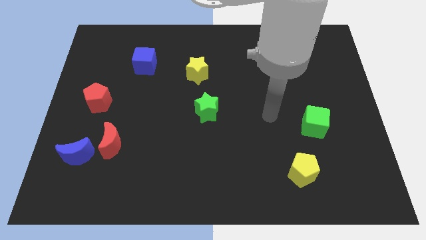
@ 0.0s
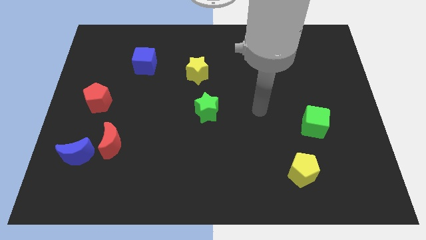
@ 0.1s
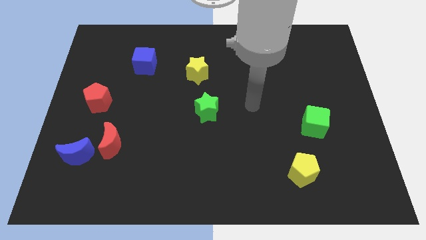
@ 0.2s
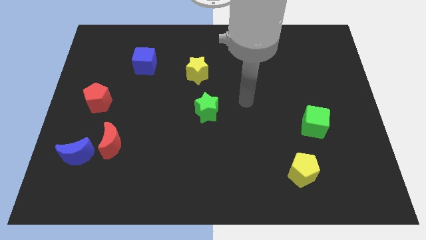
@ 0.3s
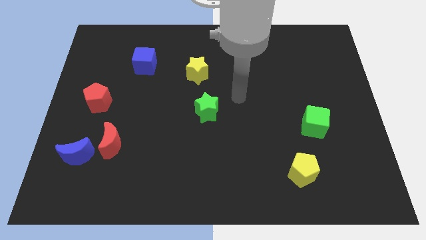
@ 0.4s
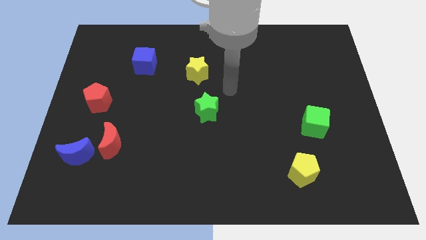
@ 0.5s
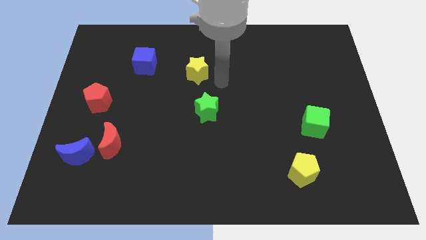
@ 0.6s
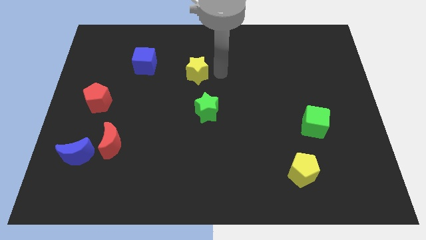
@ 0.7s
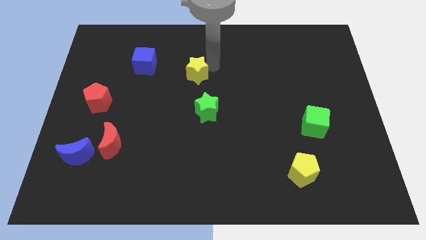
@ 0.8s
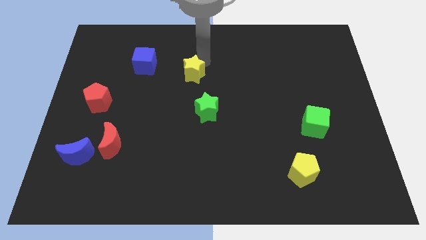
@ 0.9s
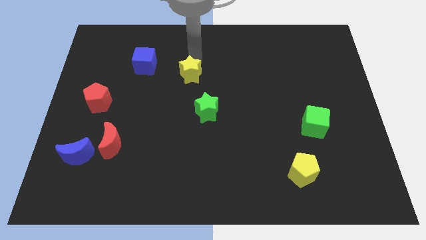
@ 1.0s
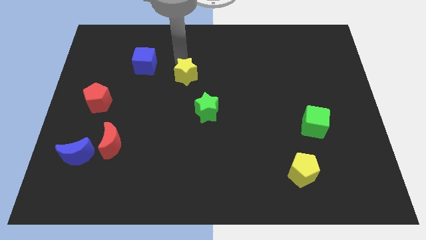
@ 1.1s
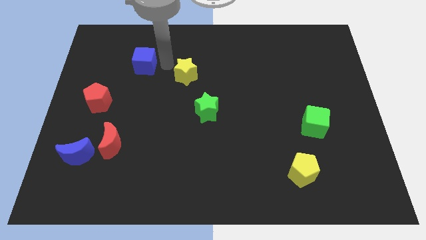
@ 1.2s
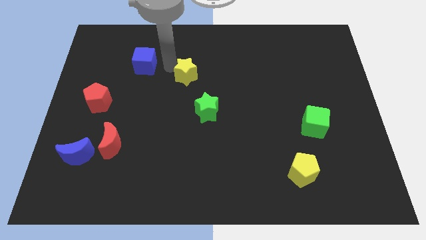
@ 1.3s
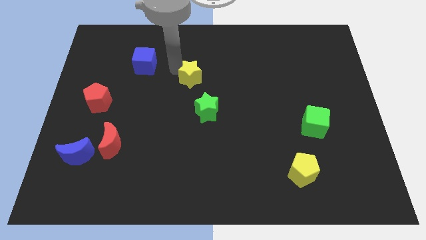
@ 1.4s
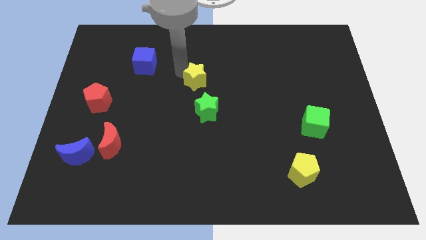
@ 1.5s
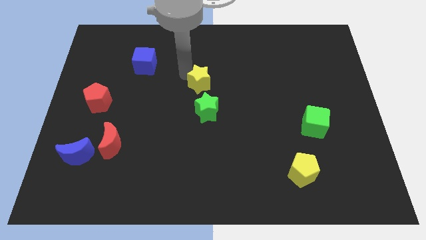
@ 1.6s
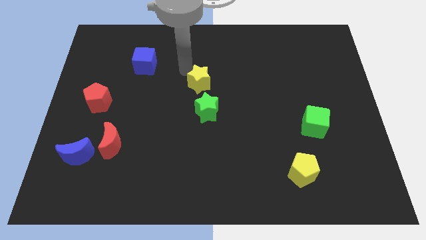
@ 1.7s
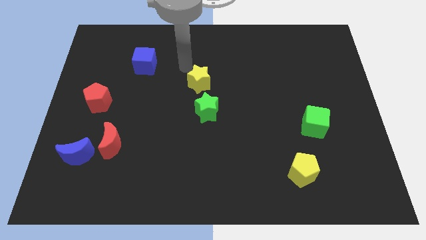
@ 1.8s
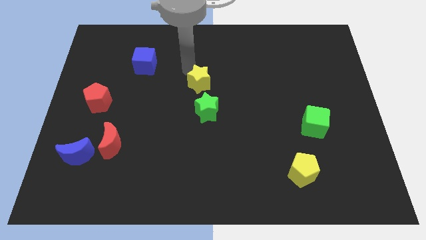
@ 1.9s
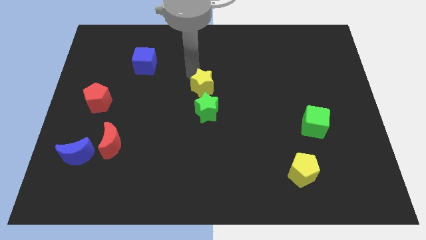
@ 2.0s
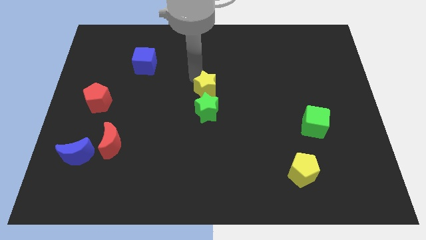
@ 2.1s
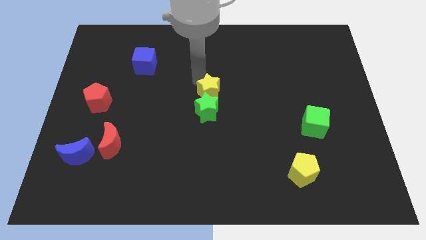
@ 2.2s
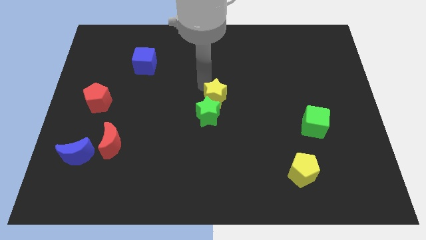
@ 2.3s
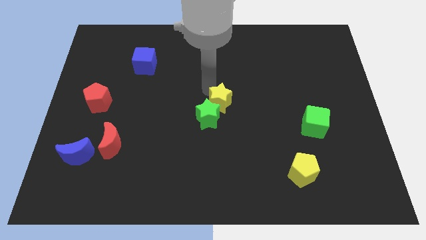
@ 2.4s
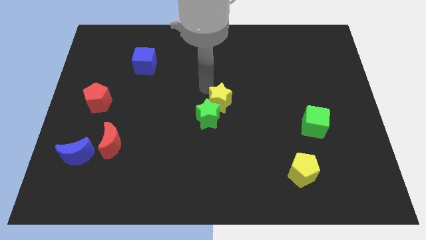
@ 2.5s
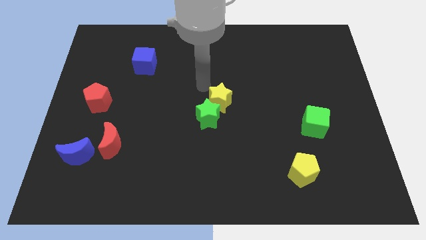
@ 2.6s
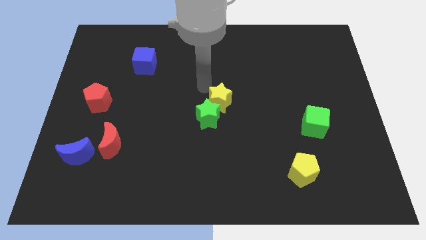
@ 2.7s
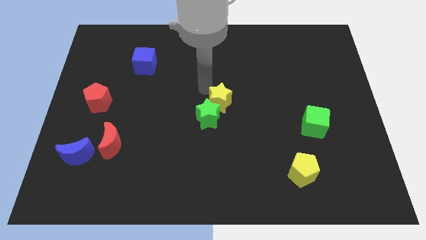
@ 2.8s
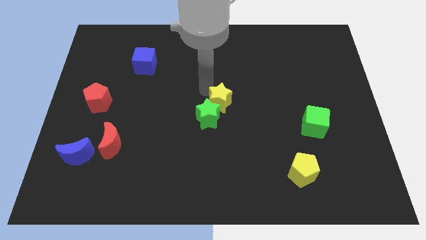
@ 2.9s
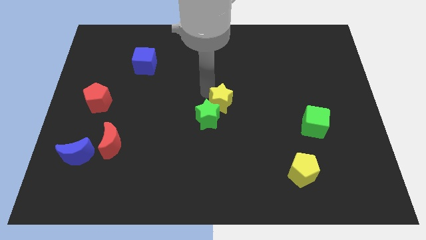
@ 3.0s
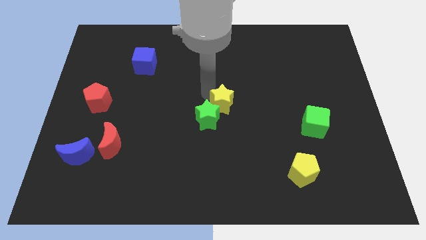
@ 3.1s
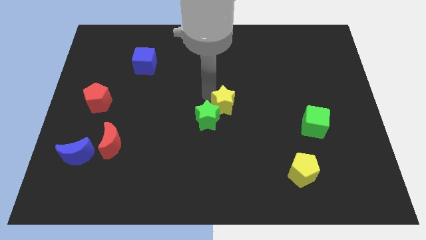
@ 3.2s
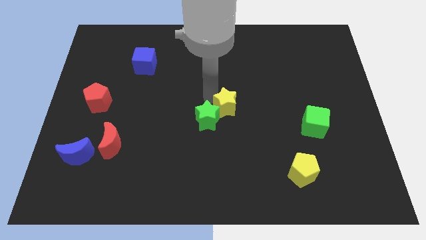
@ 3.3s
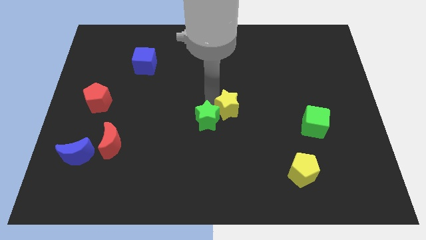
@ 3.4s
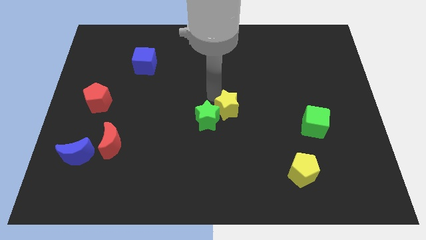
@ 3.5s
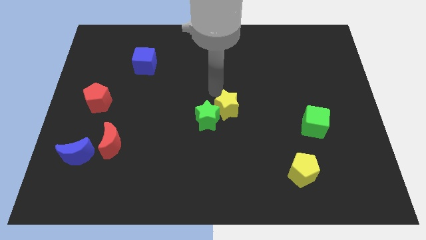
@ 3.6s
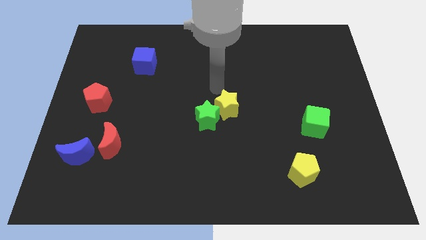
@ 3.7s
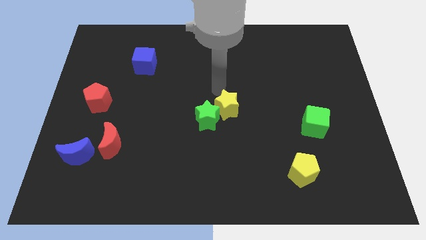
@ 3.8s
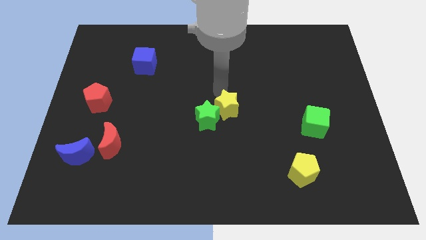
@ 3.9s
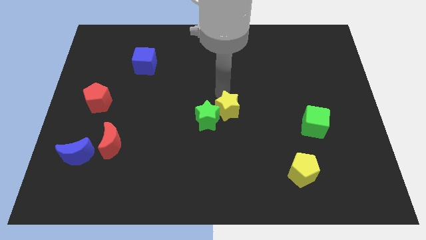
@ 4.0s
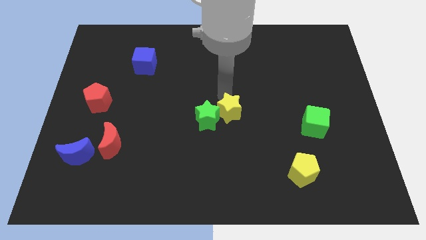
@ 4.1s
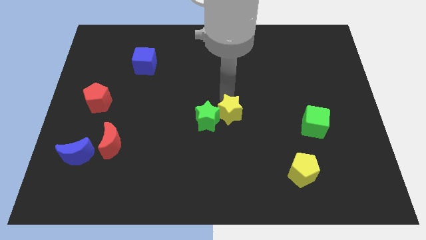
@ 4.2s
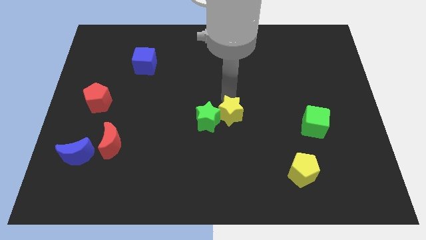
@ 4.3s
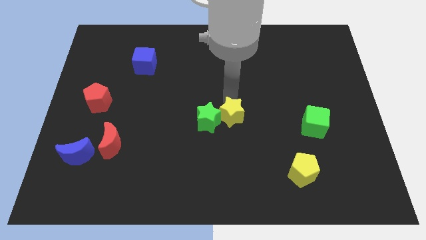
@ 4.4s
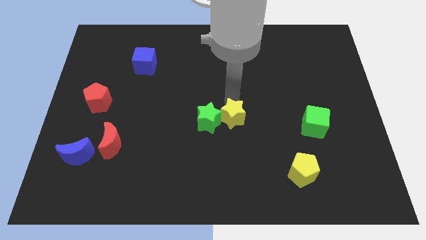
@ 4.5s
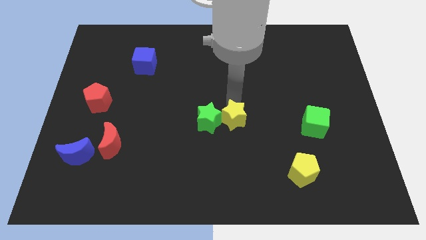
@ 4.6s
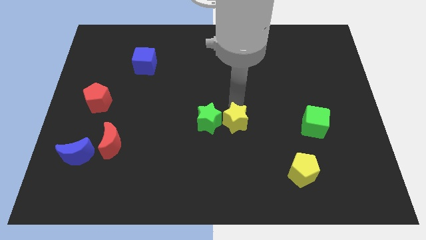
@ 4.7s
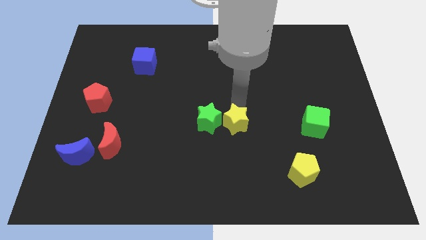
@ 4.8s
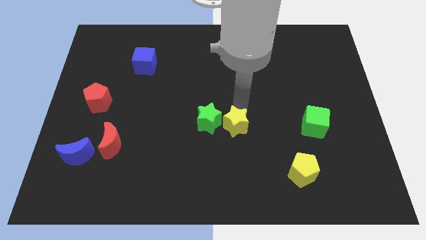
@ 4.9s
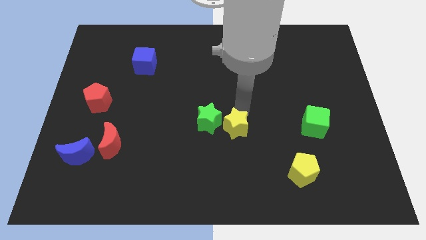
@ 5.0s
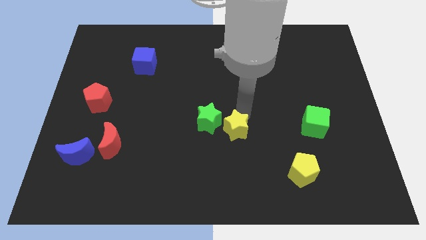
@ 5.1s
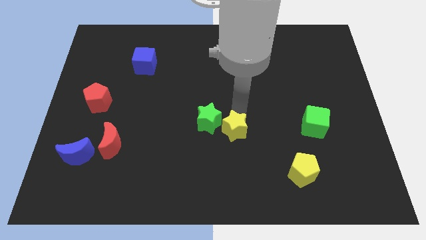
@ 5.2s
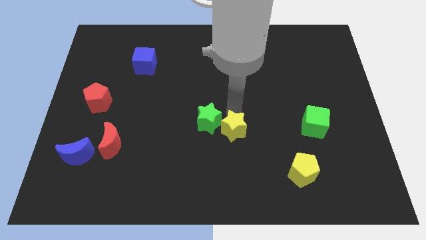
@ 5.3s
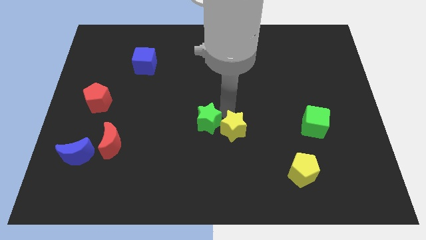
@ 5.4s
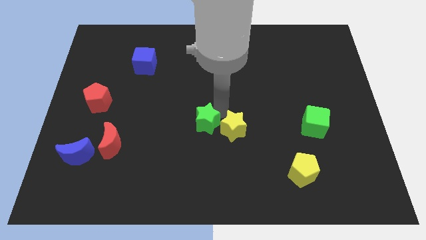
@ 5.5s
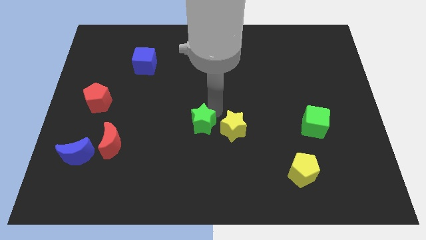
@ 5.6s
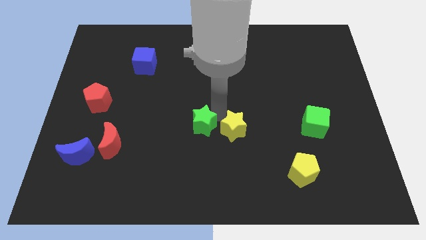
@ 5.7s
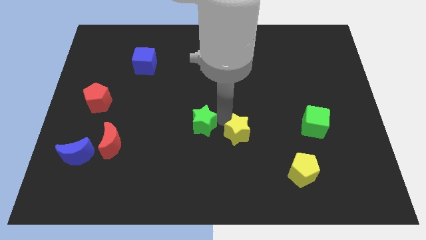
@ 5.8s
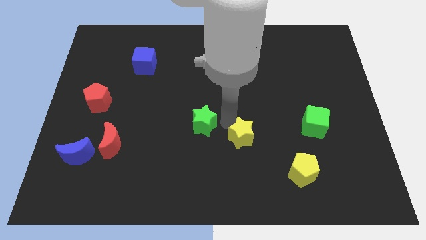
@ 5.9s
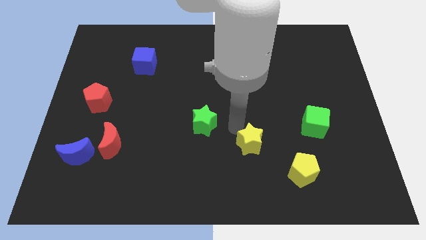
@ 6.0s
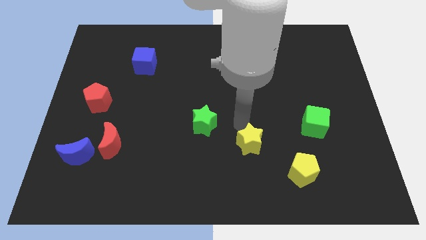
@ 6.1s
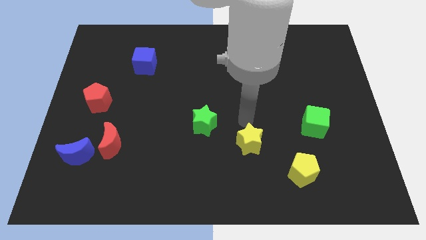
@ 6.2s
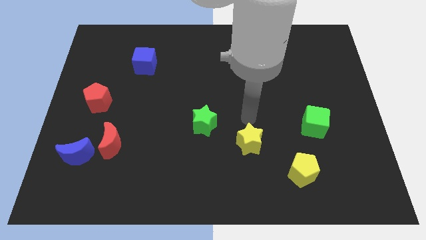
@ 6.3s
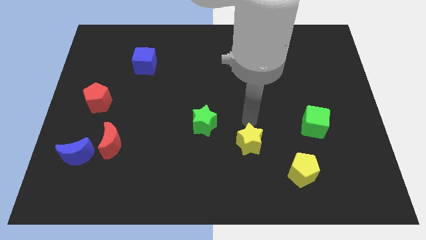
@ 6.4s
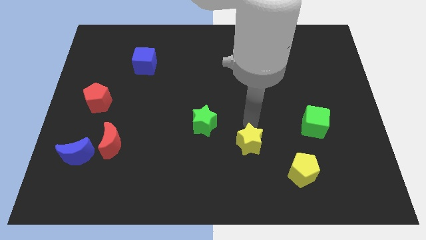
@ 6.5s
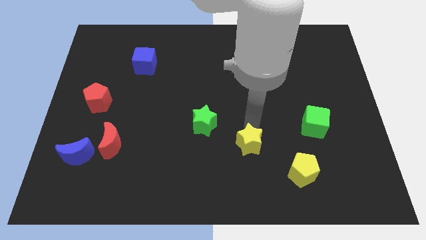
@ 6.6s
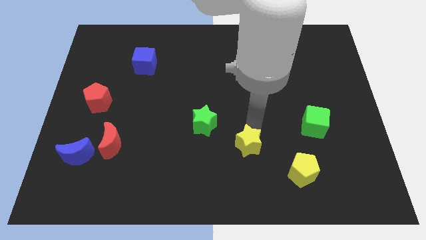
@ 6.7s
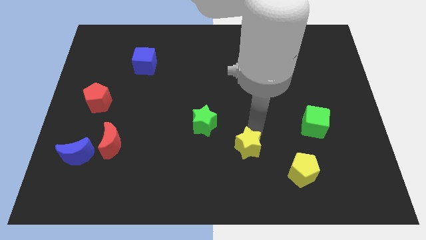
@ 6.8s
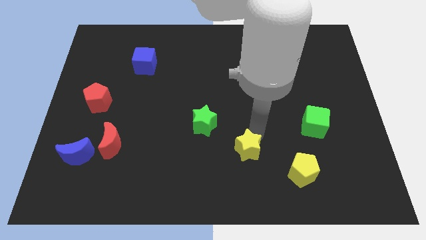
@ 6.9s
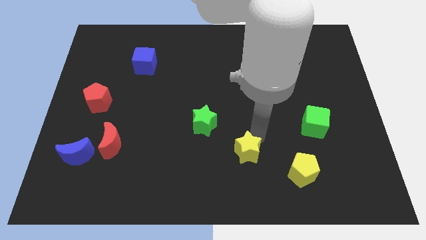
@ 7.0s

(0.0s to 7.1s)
slide the yellow star left of the yellow pentagon

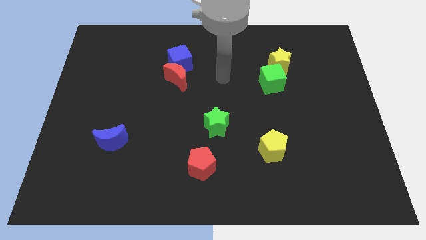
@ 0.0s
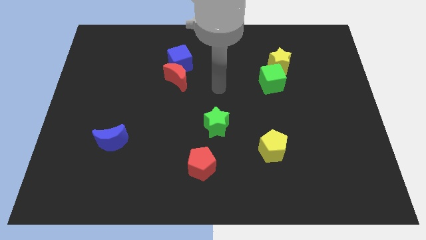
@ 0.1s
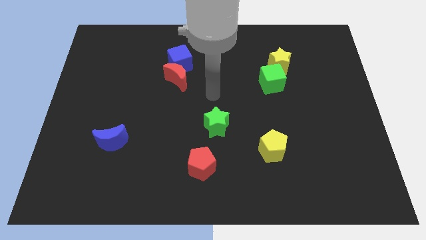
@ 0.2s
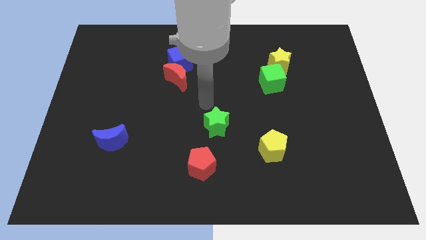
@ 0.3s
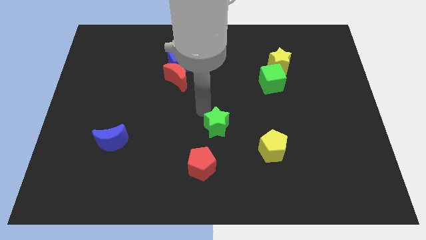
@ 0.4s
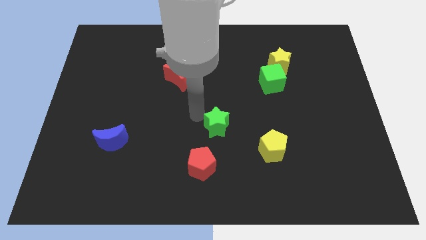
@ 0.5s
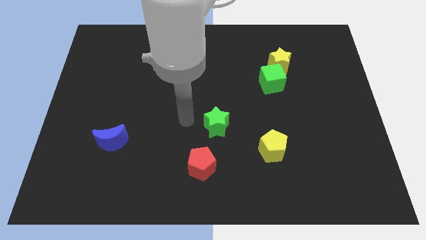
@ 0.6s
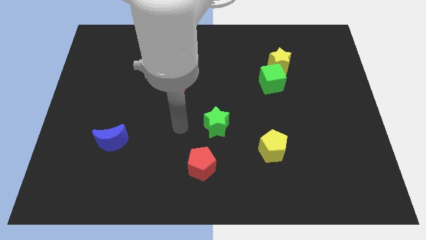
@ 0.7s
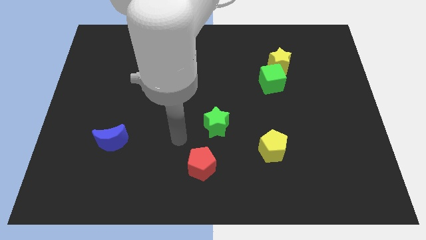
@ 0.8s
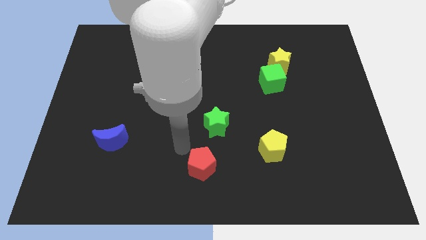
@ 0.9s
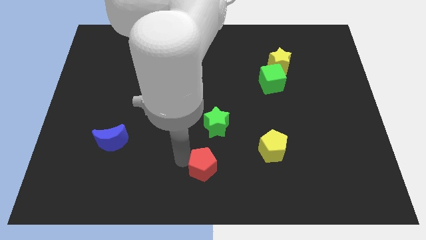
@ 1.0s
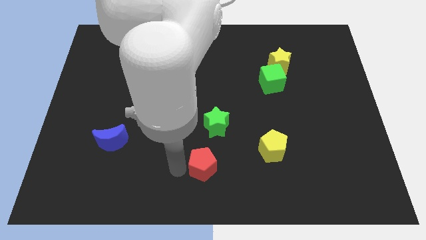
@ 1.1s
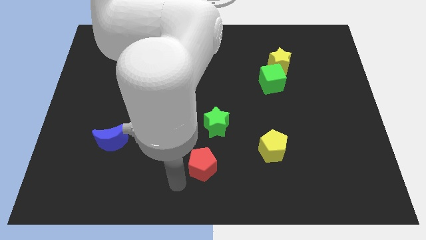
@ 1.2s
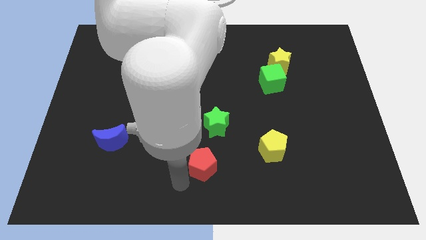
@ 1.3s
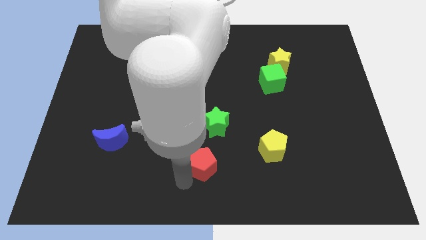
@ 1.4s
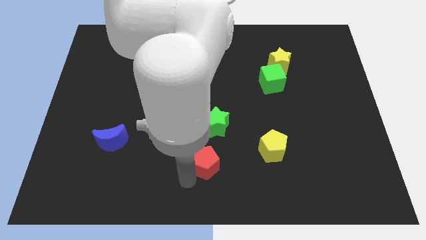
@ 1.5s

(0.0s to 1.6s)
move the red pentagon to the left of the yellow pentagon
